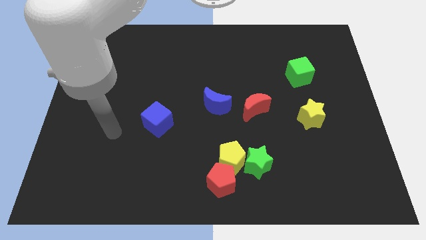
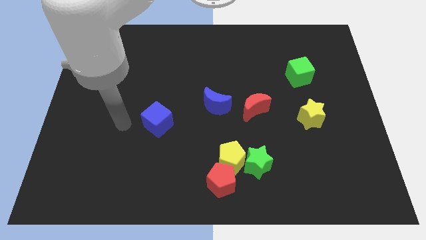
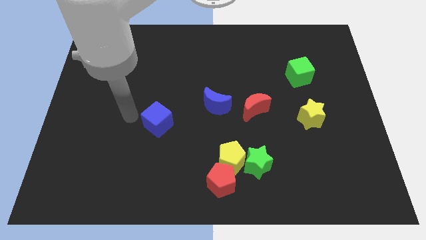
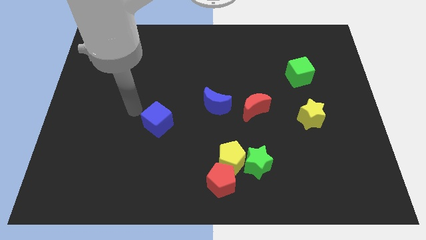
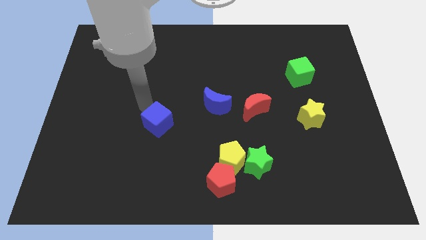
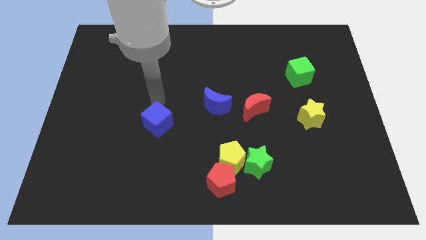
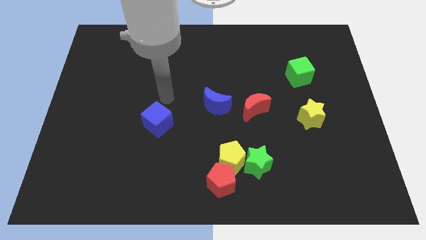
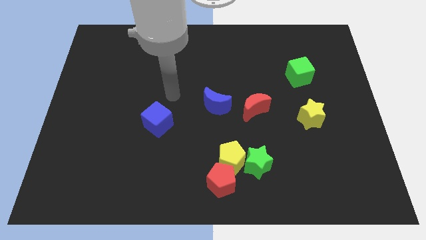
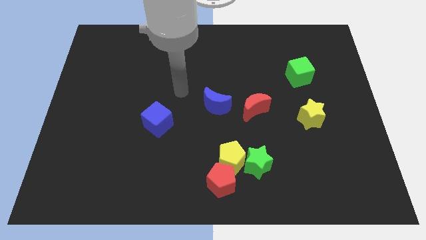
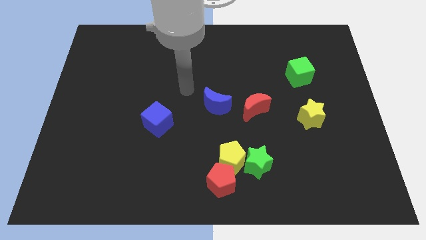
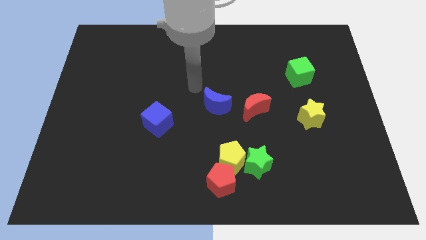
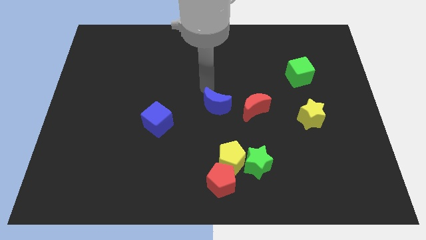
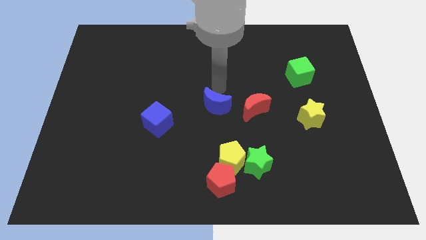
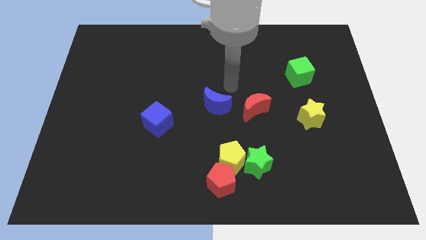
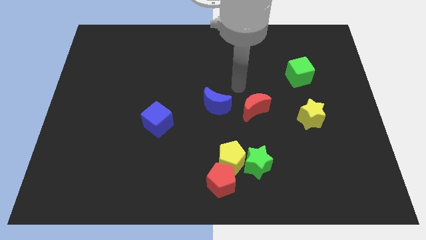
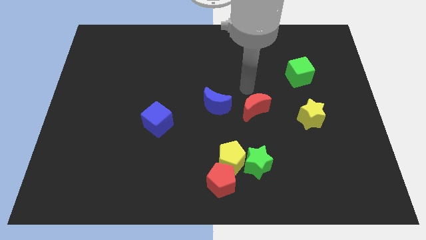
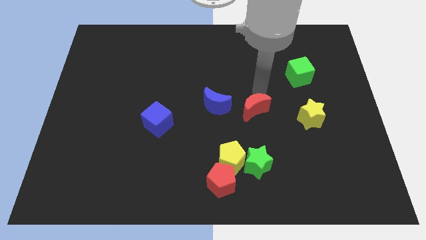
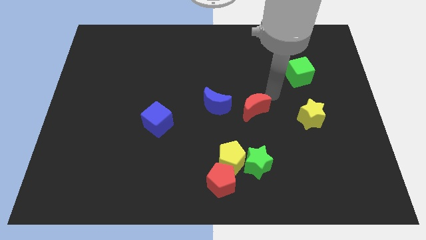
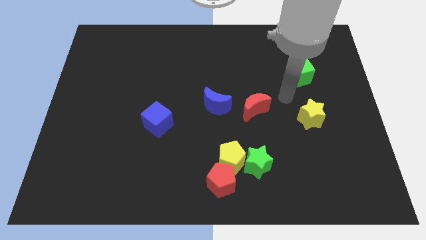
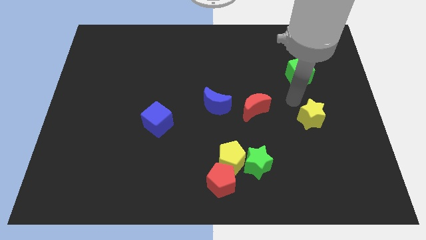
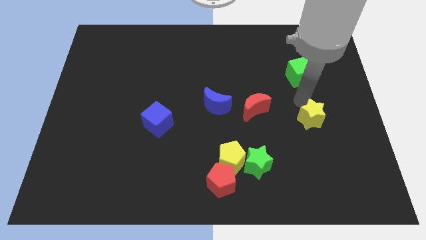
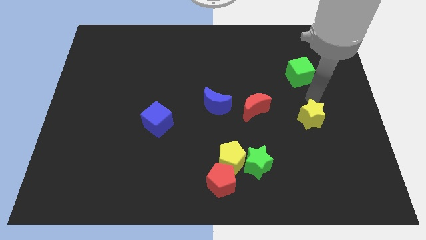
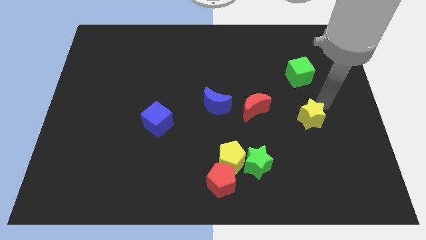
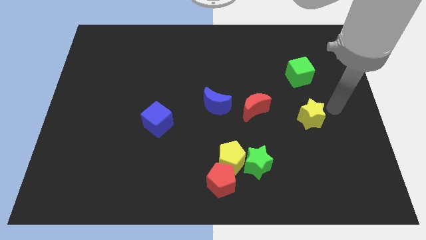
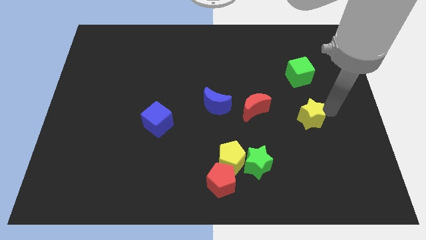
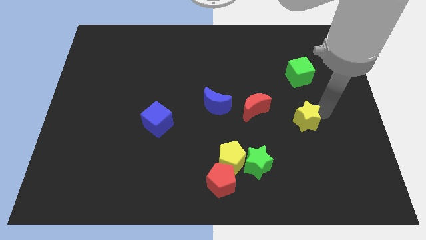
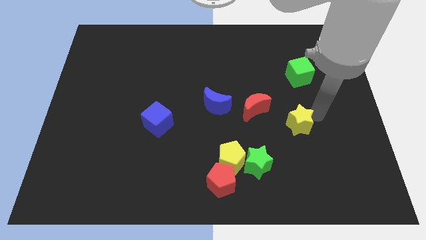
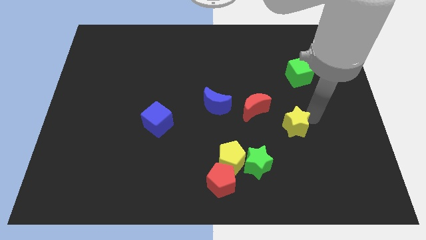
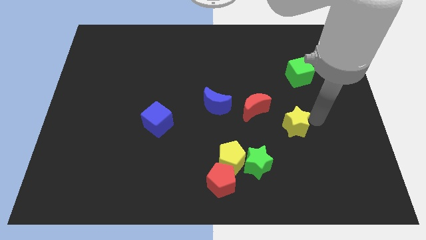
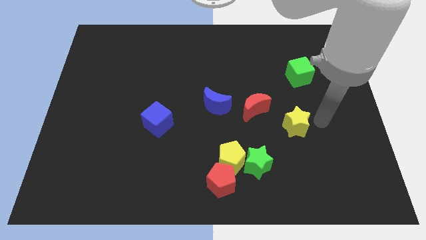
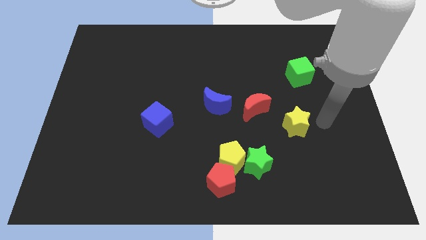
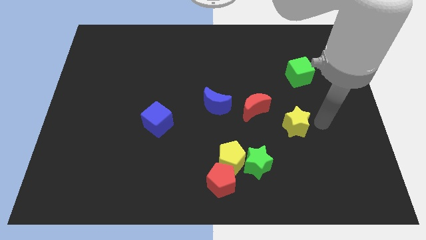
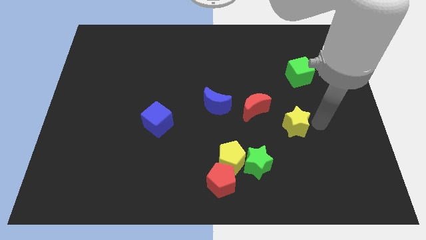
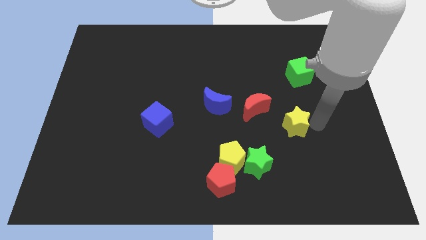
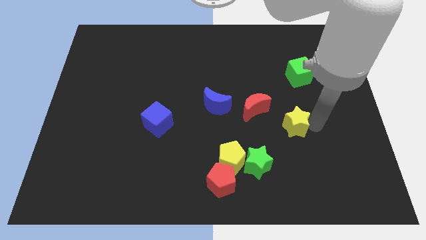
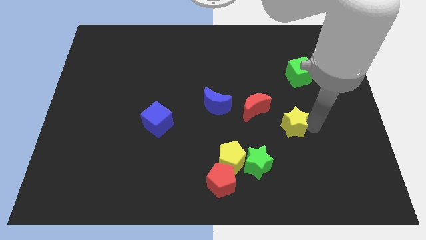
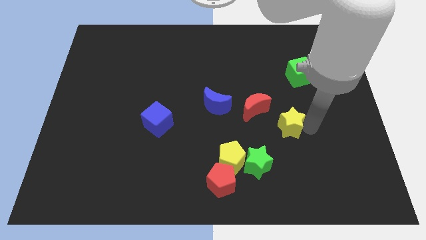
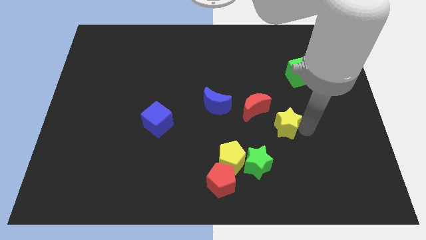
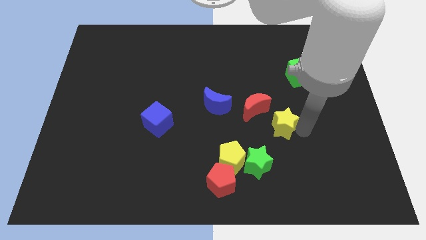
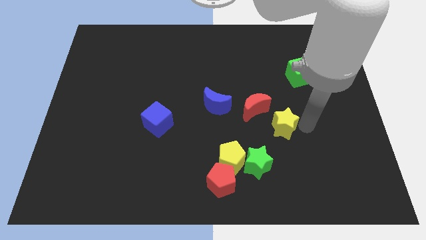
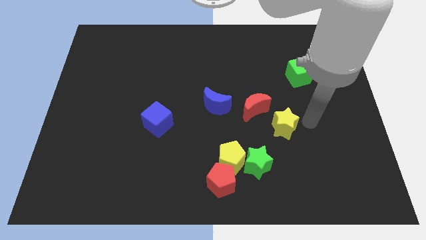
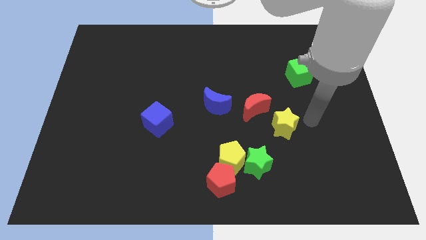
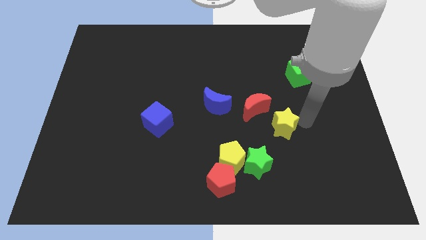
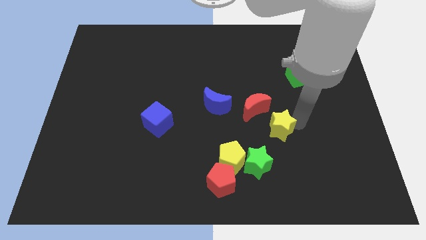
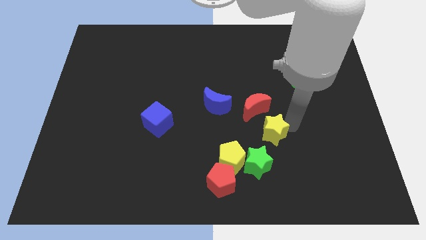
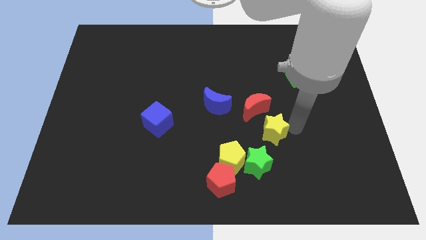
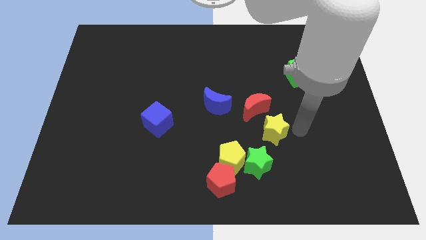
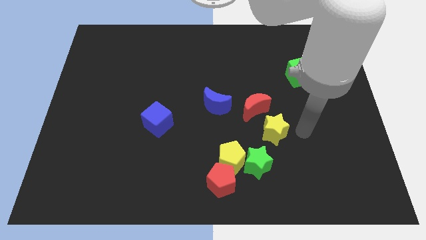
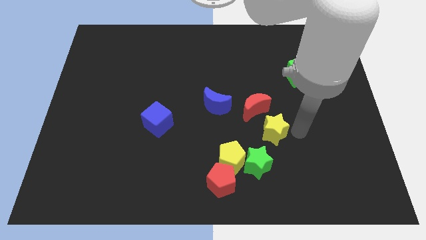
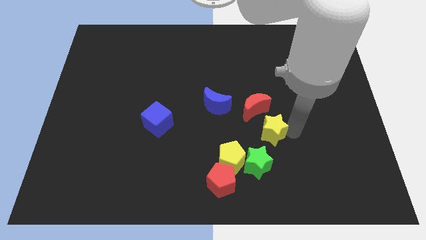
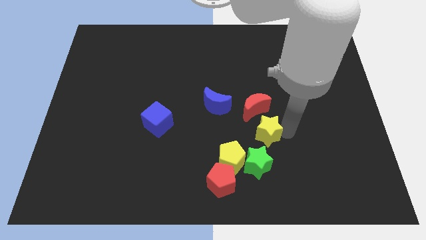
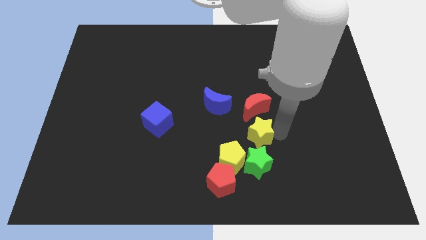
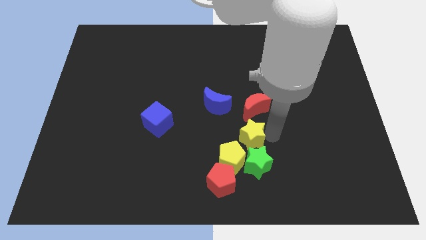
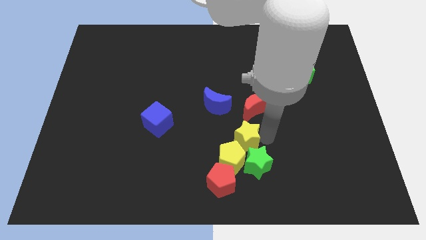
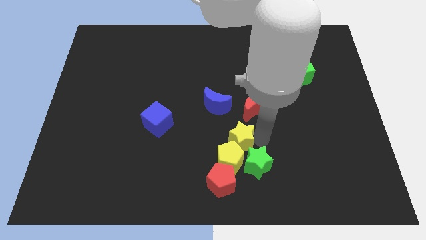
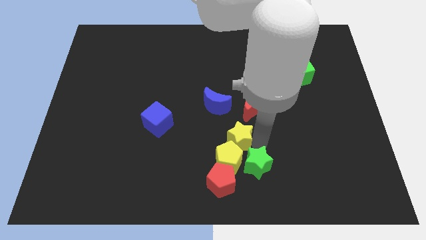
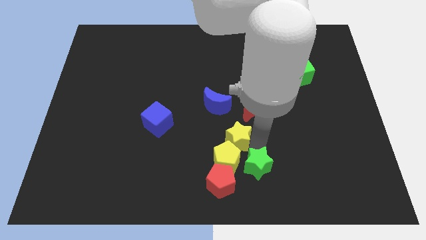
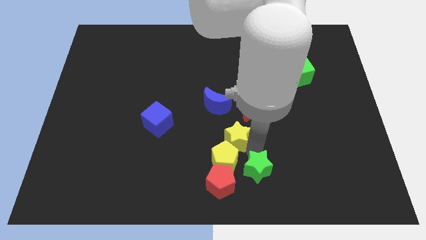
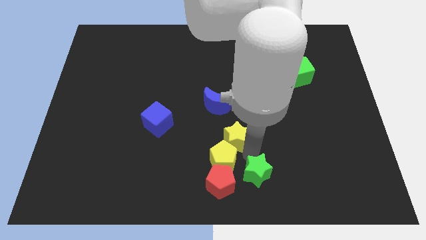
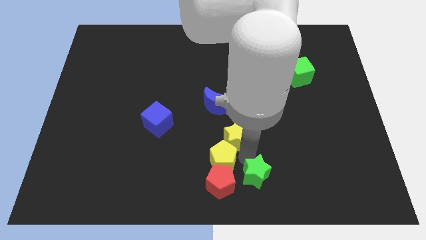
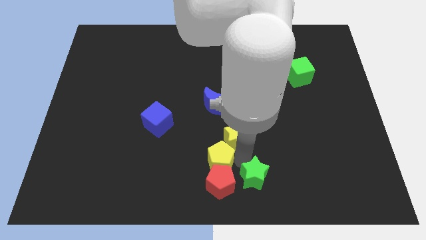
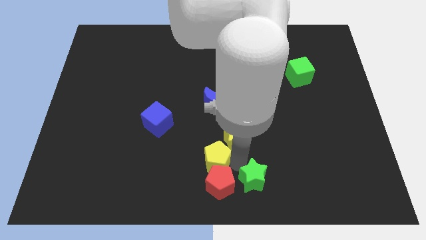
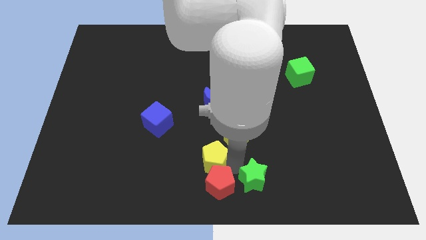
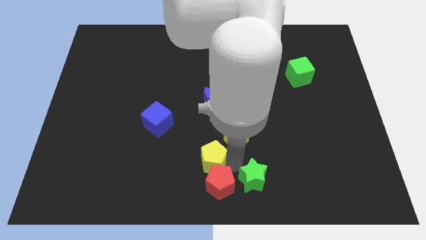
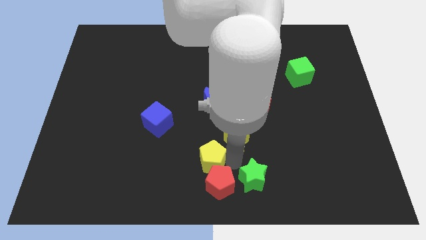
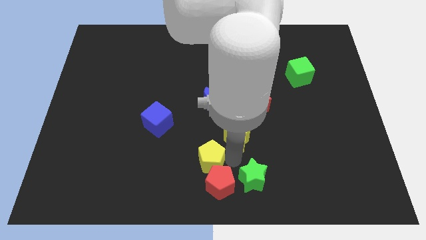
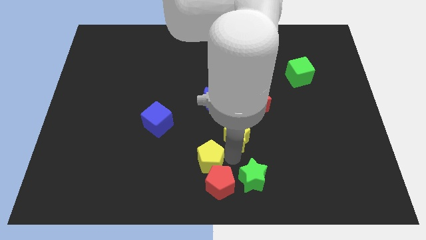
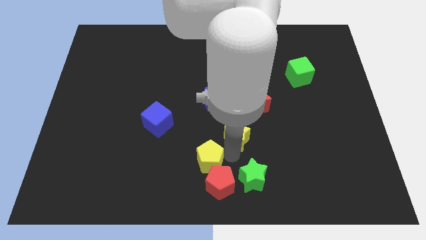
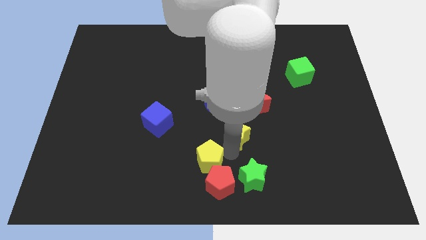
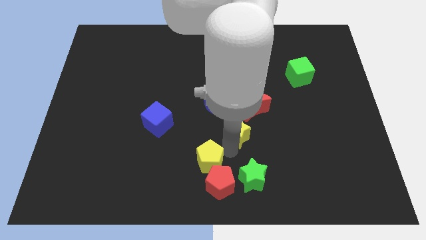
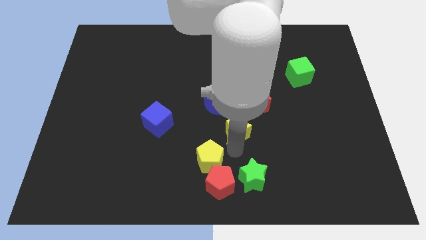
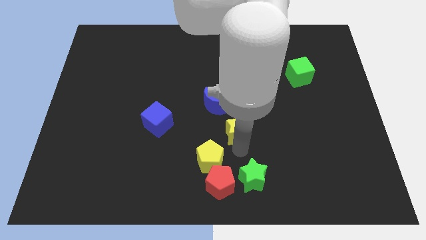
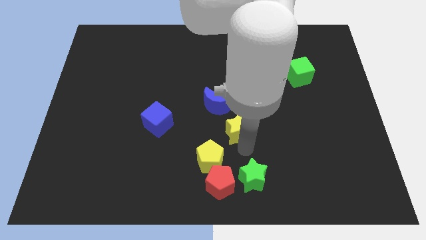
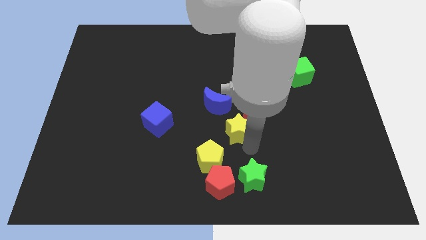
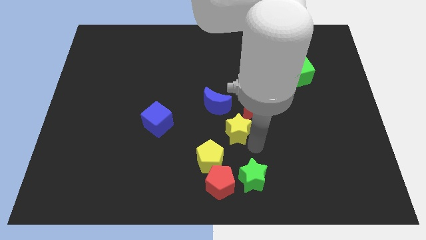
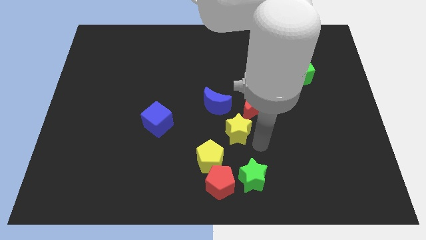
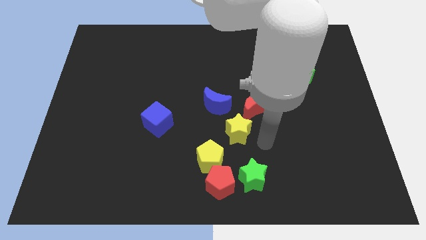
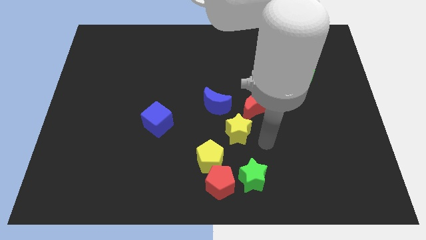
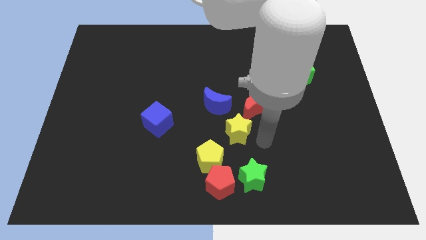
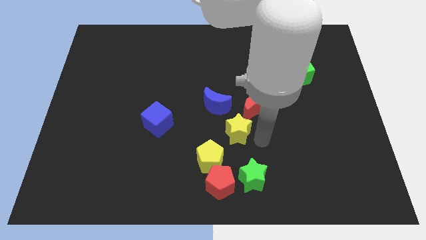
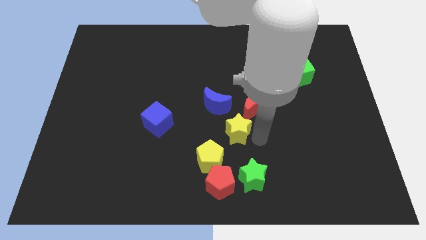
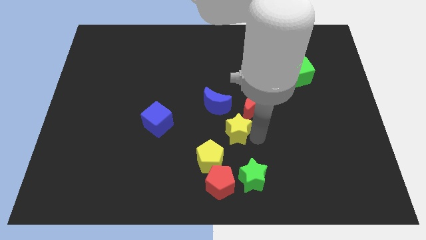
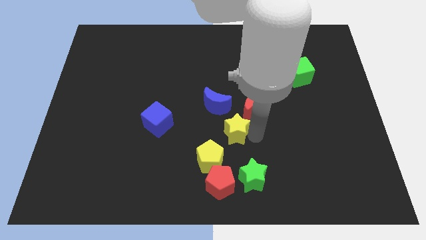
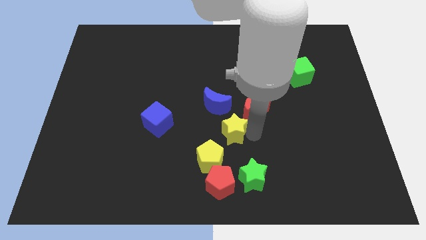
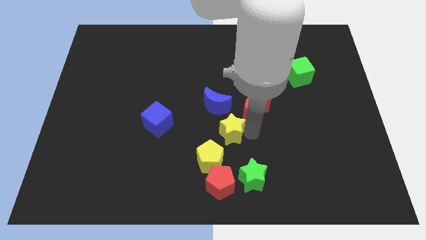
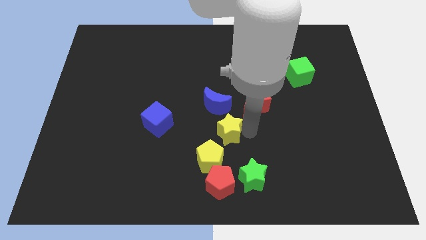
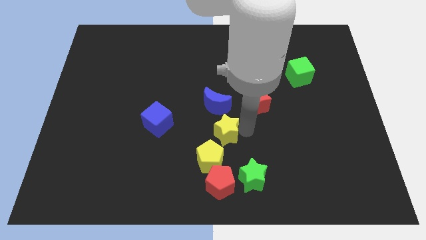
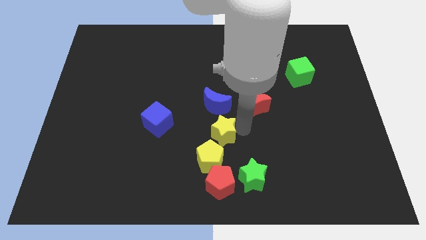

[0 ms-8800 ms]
put the yellow star just right of the blue cube
